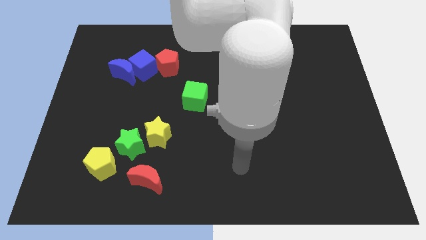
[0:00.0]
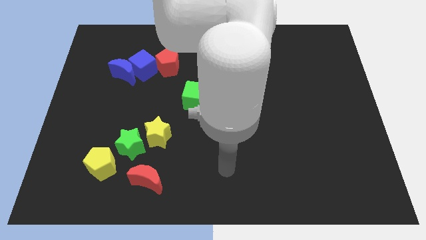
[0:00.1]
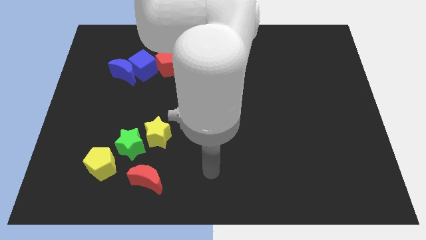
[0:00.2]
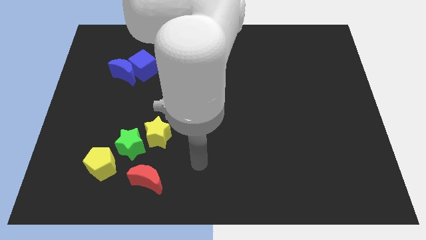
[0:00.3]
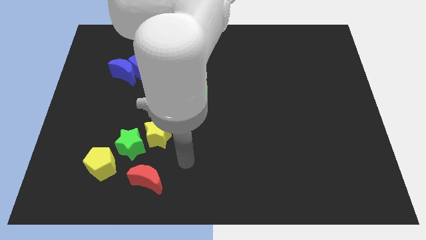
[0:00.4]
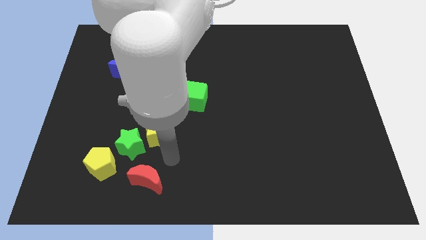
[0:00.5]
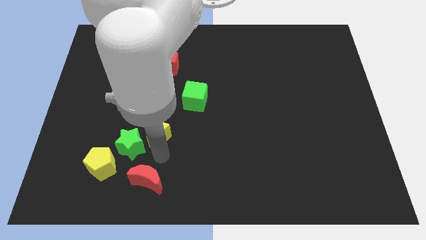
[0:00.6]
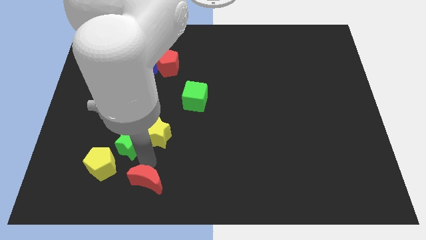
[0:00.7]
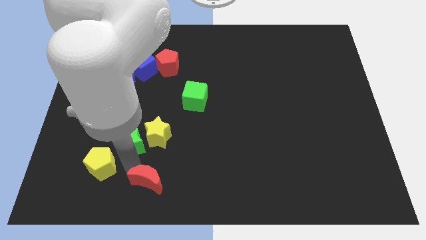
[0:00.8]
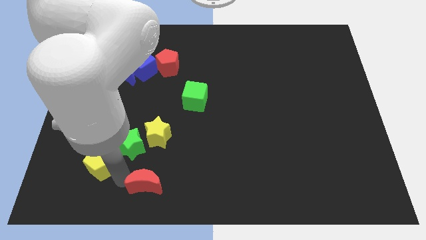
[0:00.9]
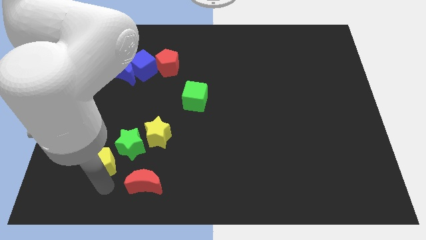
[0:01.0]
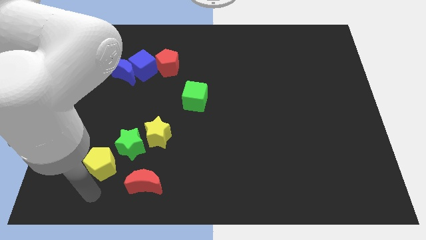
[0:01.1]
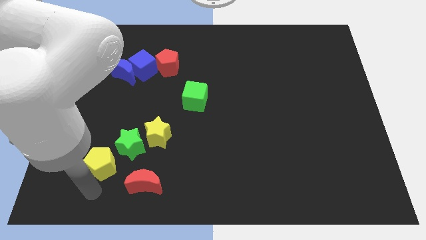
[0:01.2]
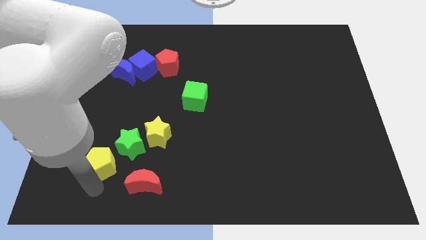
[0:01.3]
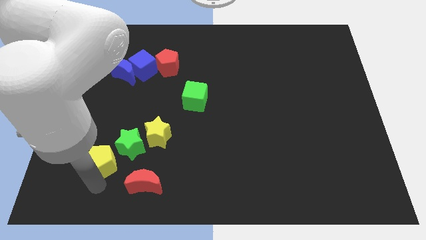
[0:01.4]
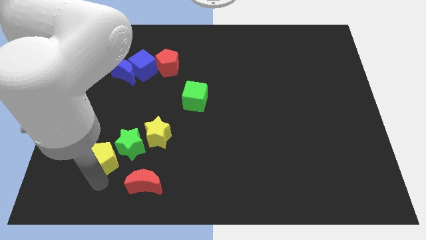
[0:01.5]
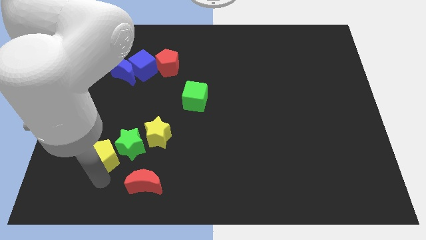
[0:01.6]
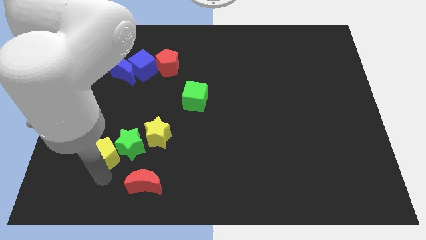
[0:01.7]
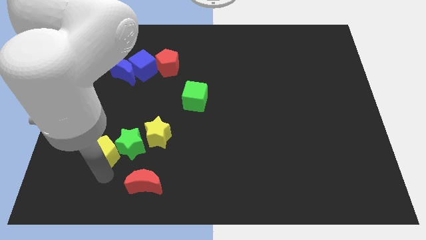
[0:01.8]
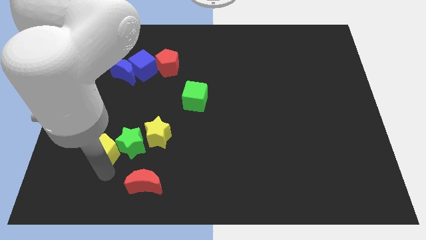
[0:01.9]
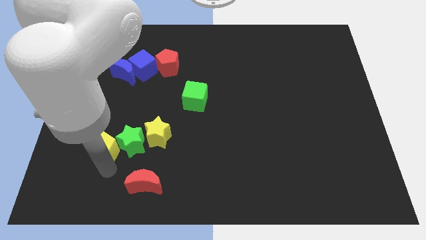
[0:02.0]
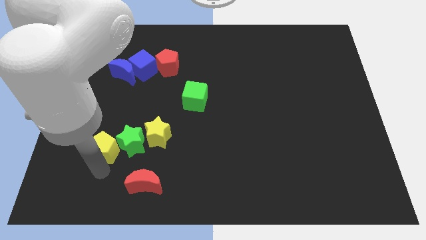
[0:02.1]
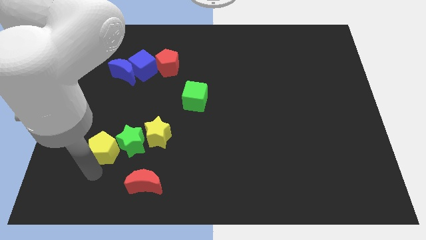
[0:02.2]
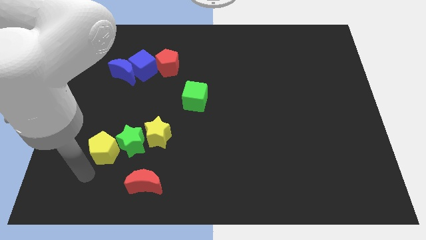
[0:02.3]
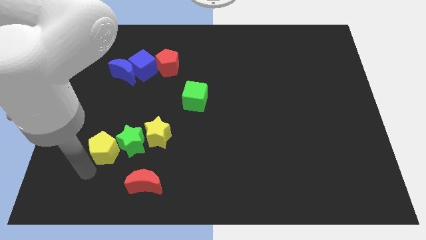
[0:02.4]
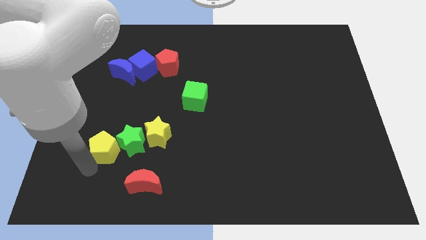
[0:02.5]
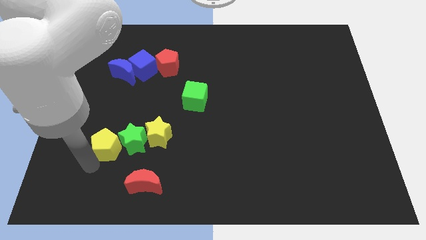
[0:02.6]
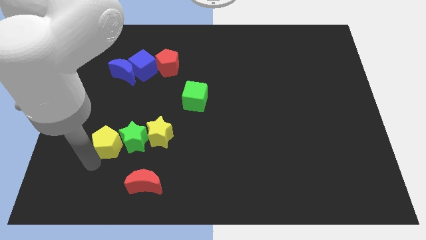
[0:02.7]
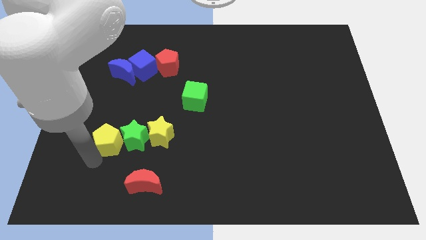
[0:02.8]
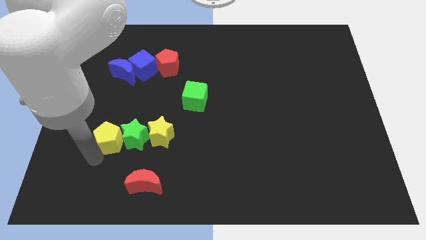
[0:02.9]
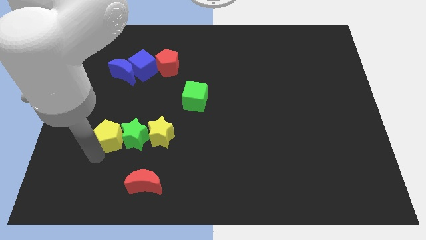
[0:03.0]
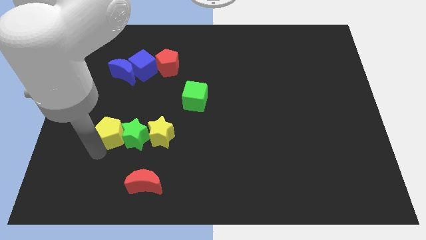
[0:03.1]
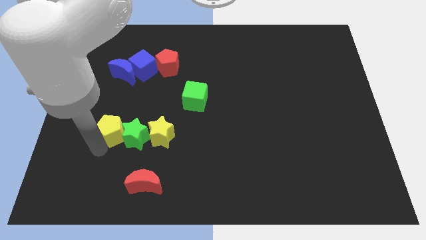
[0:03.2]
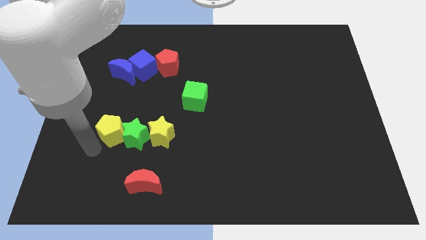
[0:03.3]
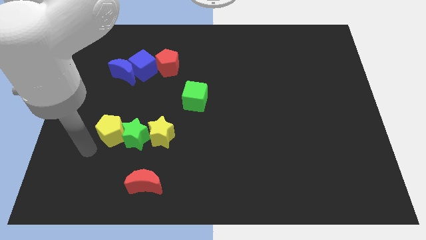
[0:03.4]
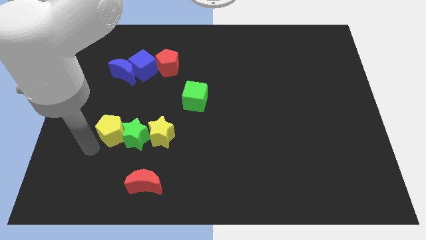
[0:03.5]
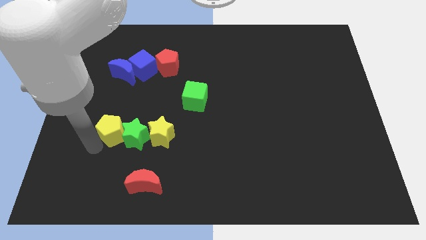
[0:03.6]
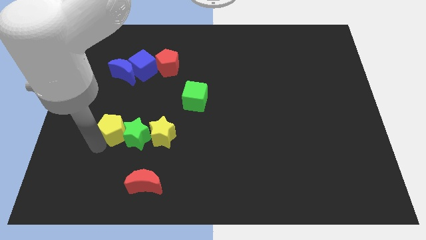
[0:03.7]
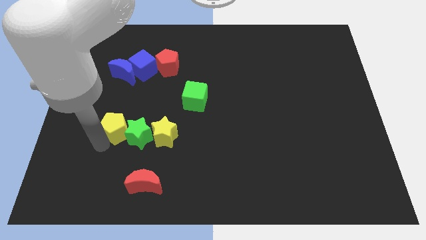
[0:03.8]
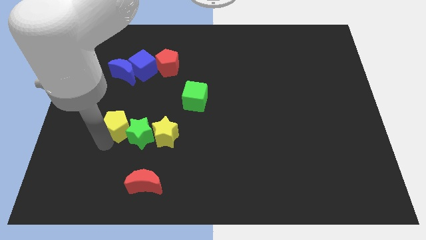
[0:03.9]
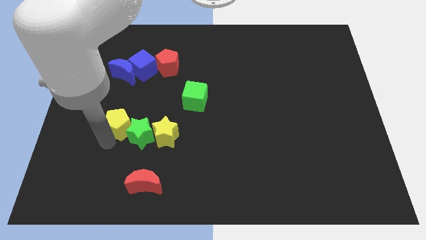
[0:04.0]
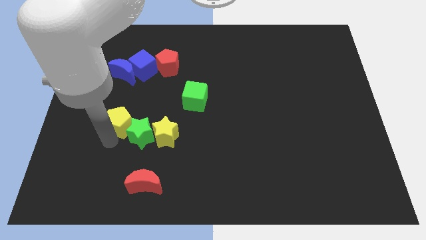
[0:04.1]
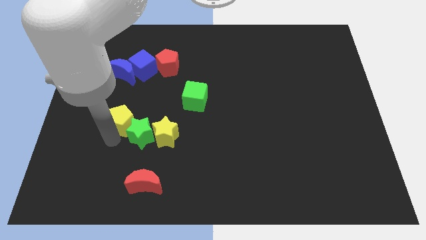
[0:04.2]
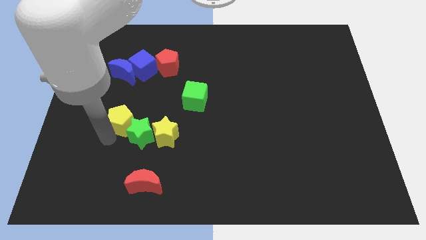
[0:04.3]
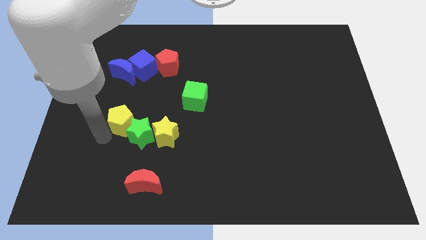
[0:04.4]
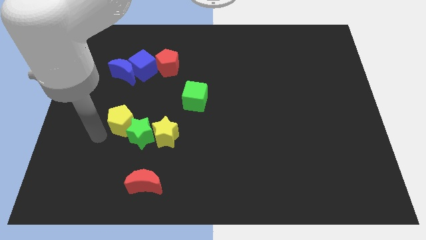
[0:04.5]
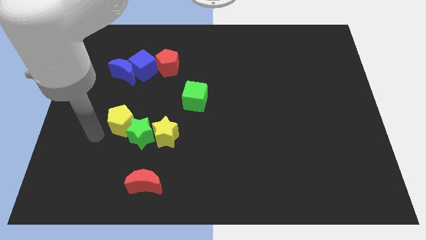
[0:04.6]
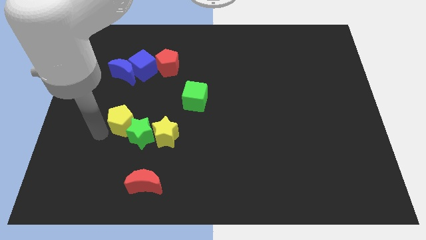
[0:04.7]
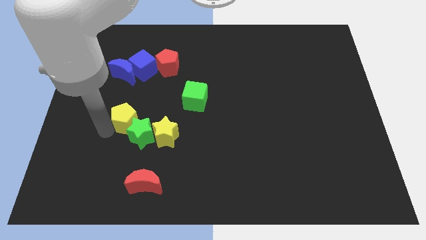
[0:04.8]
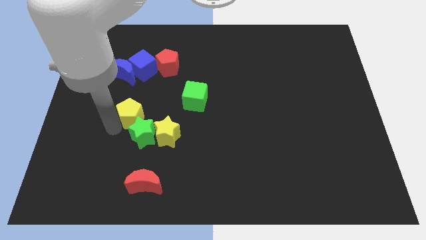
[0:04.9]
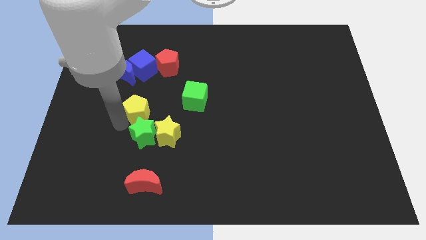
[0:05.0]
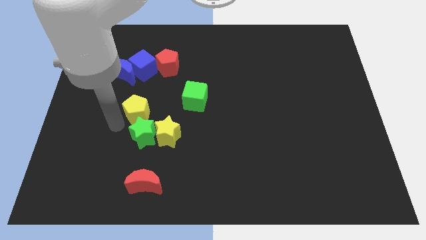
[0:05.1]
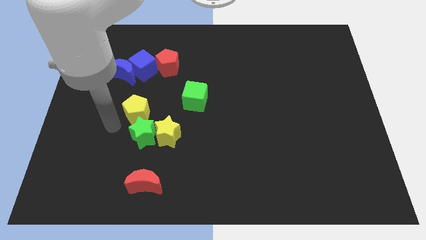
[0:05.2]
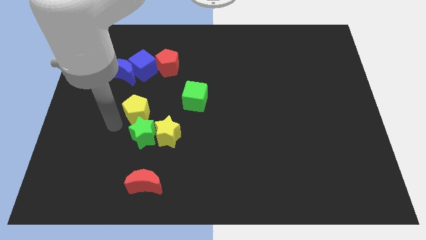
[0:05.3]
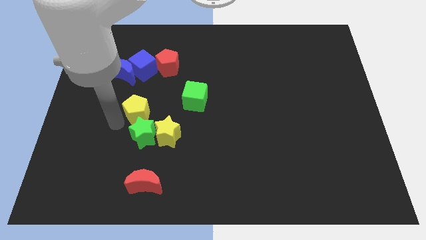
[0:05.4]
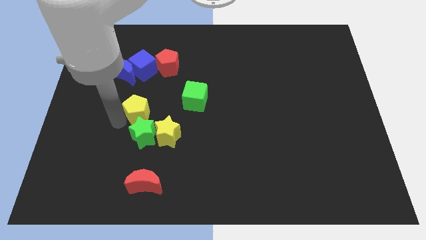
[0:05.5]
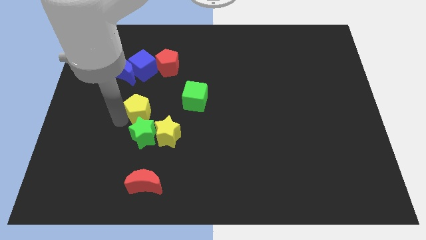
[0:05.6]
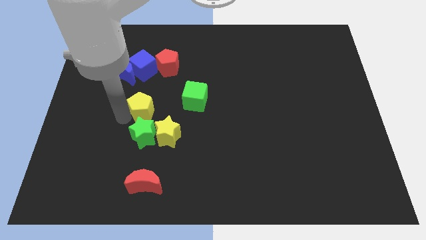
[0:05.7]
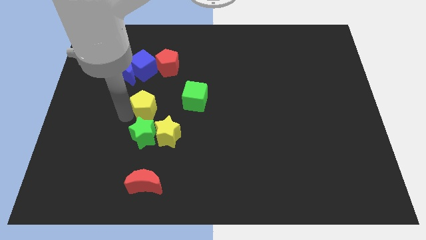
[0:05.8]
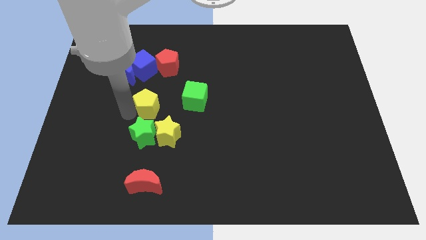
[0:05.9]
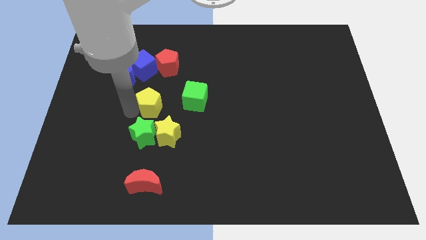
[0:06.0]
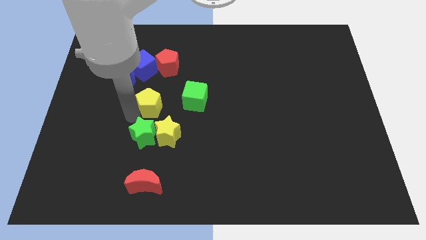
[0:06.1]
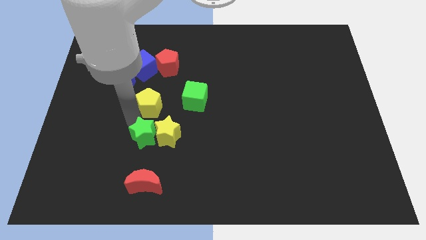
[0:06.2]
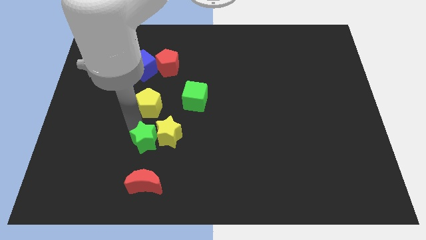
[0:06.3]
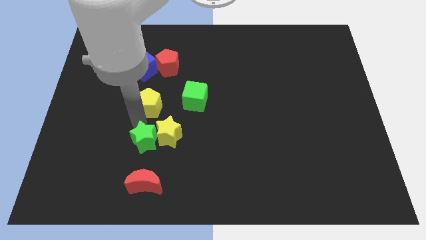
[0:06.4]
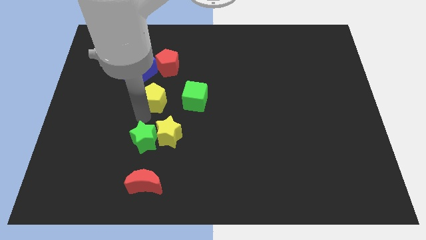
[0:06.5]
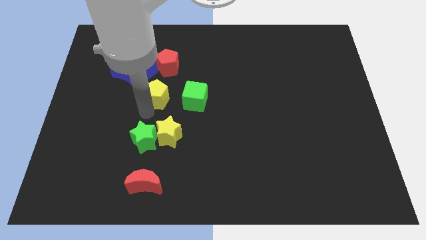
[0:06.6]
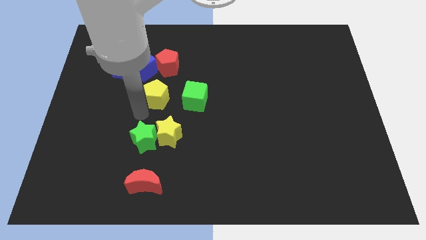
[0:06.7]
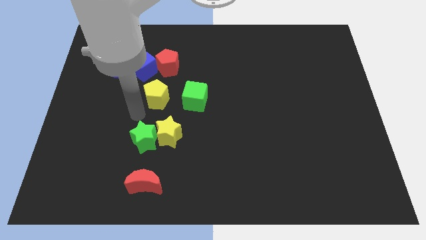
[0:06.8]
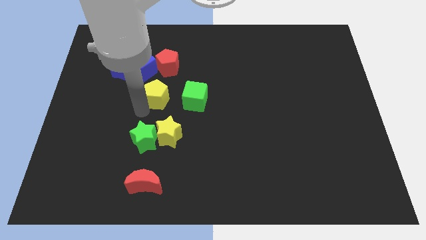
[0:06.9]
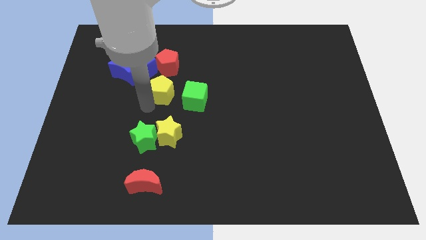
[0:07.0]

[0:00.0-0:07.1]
push the yellow pentagon upwards and then to the right

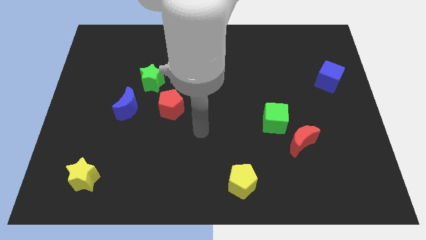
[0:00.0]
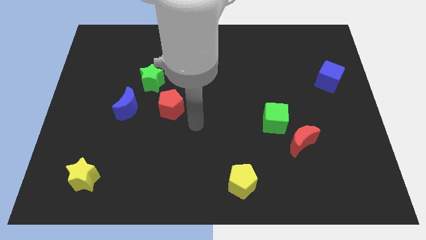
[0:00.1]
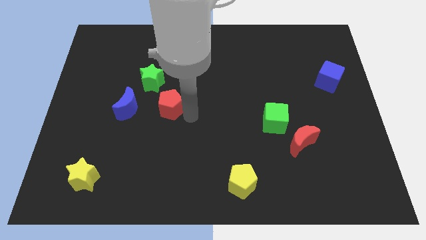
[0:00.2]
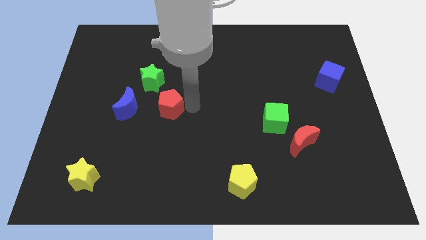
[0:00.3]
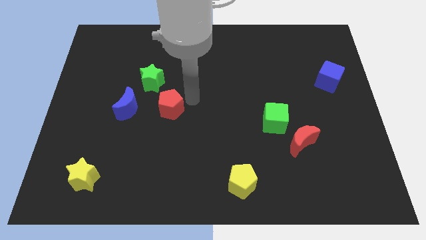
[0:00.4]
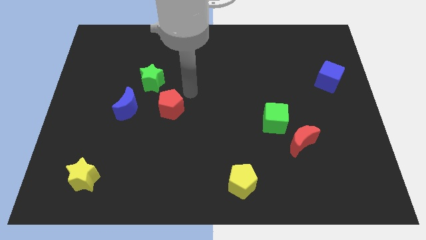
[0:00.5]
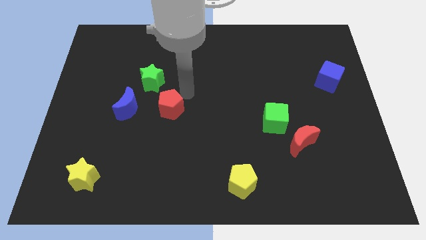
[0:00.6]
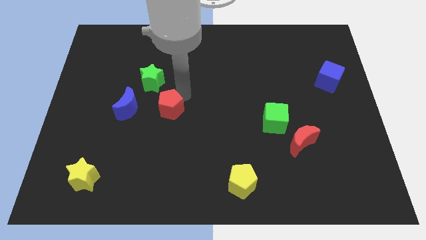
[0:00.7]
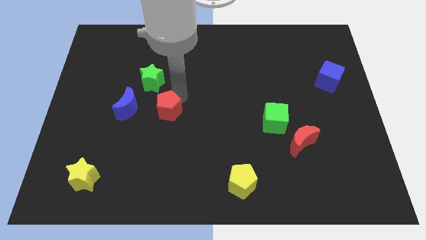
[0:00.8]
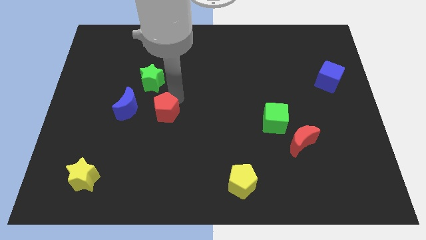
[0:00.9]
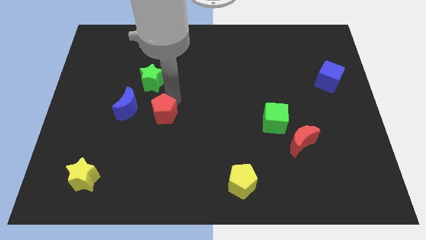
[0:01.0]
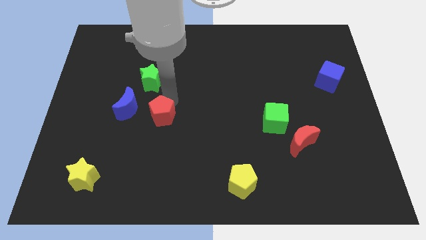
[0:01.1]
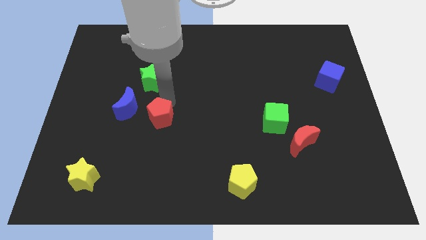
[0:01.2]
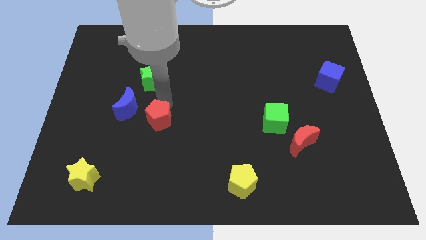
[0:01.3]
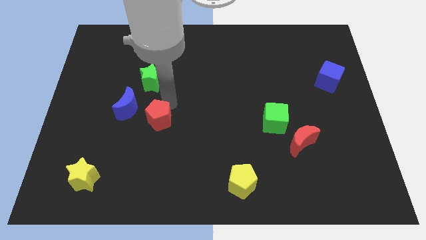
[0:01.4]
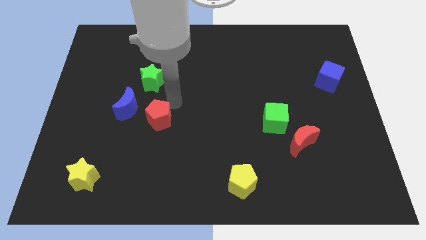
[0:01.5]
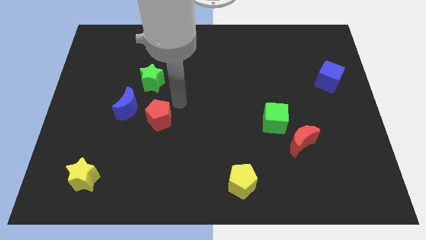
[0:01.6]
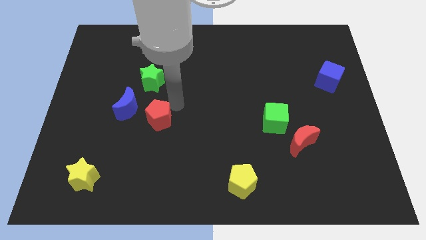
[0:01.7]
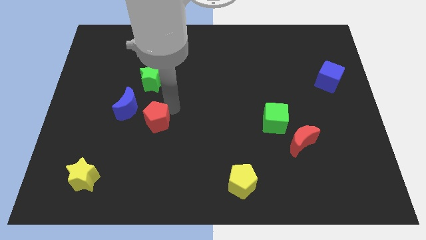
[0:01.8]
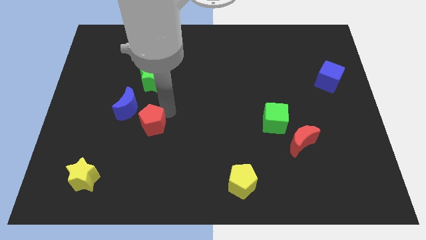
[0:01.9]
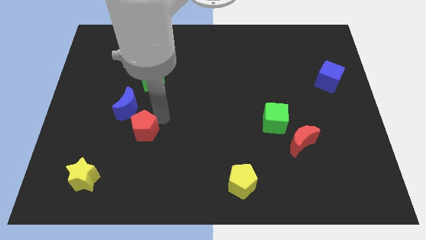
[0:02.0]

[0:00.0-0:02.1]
push the red pentagon a little bit downwards and to the left diagonally
